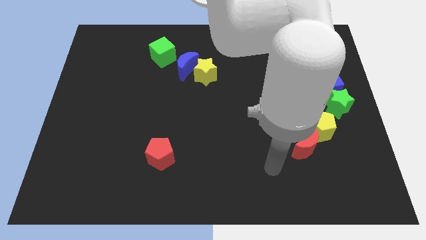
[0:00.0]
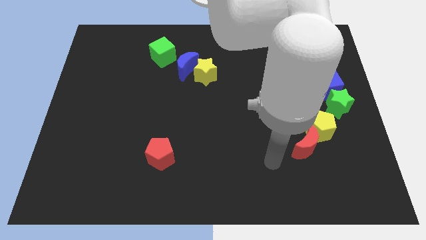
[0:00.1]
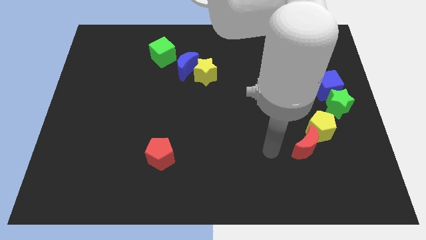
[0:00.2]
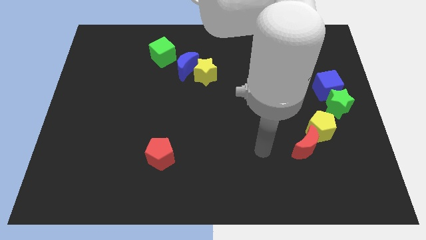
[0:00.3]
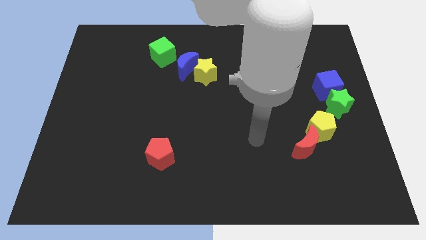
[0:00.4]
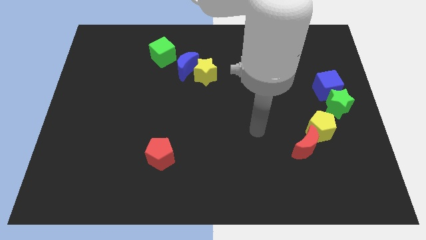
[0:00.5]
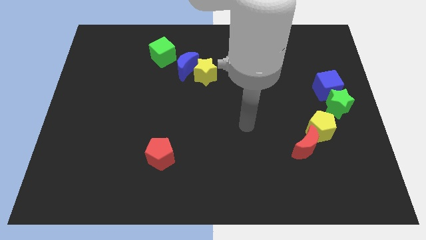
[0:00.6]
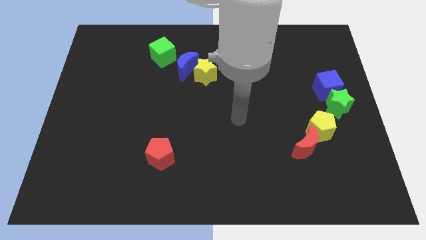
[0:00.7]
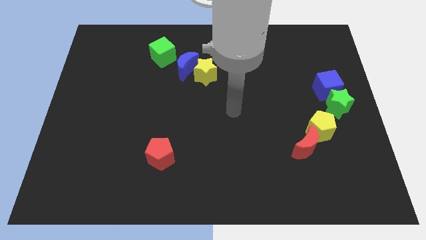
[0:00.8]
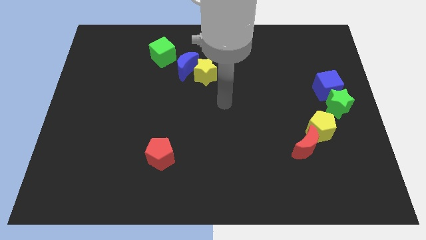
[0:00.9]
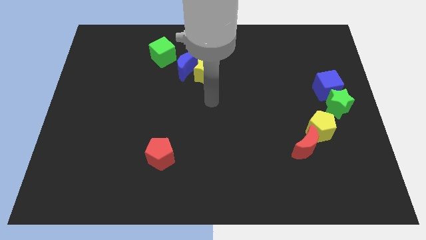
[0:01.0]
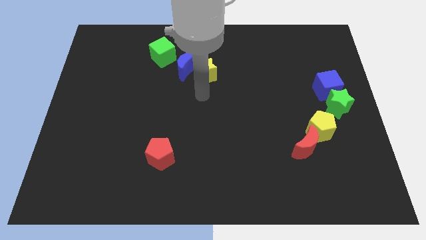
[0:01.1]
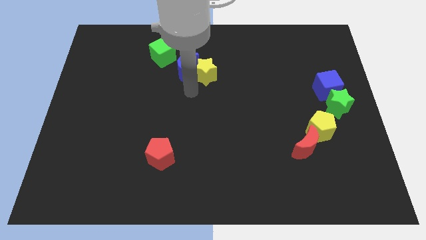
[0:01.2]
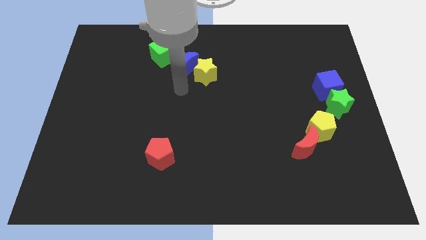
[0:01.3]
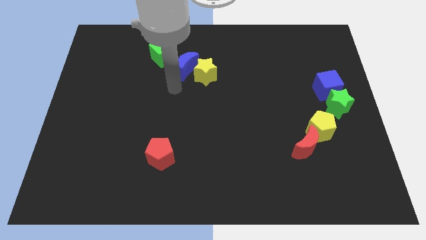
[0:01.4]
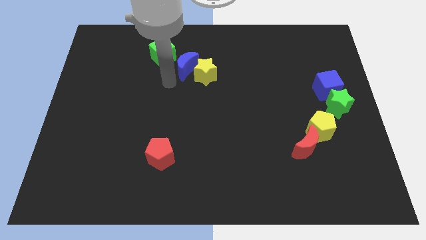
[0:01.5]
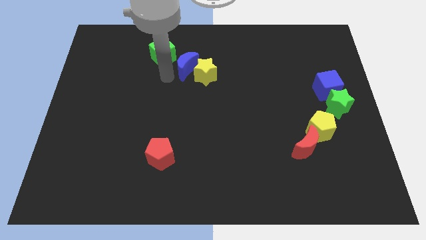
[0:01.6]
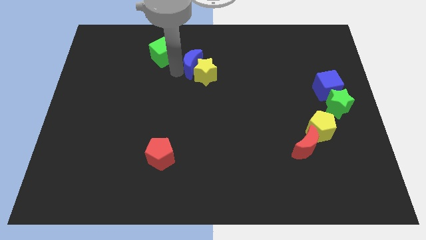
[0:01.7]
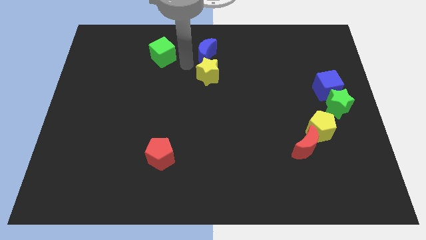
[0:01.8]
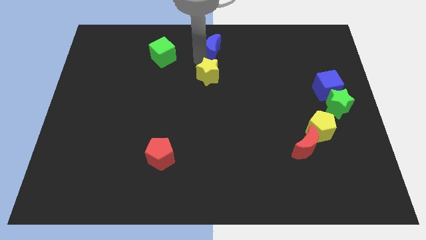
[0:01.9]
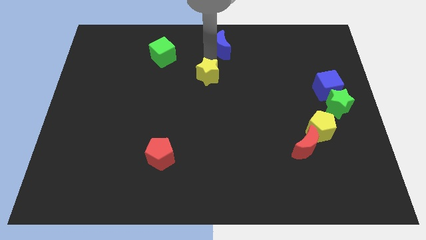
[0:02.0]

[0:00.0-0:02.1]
pull the yellow star apart from the blue moon

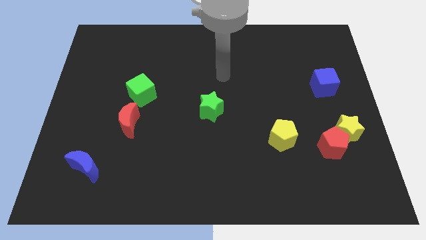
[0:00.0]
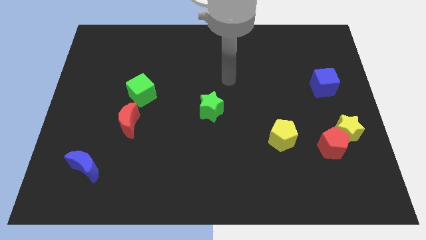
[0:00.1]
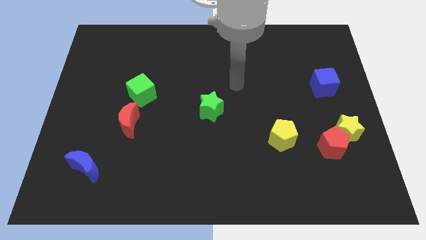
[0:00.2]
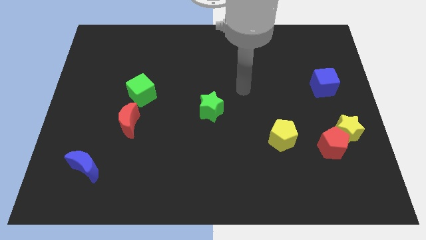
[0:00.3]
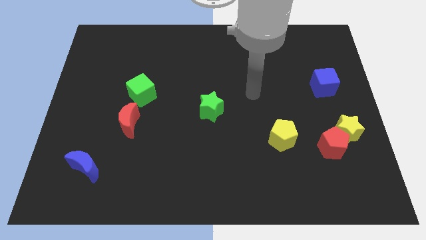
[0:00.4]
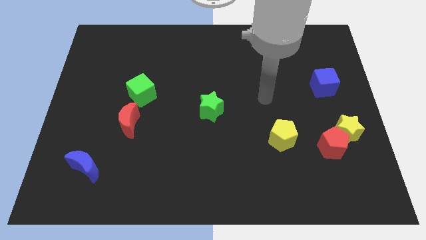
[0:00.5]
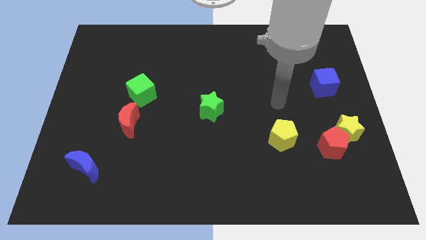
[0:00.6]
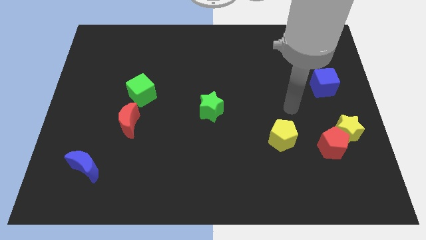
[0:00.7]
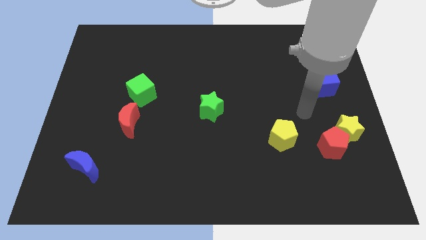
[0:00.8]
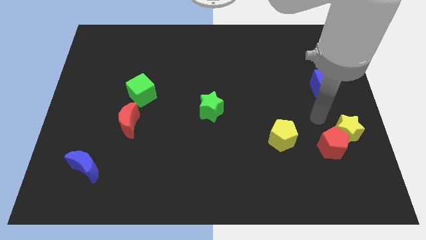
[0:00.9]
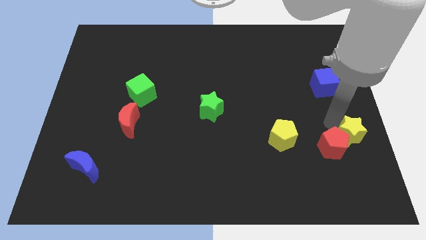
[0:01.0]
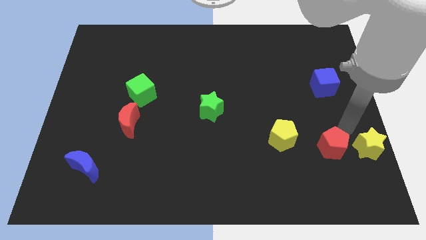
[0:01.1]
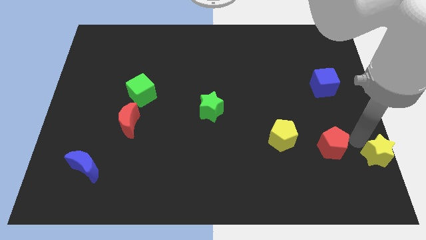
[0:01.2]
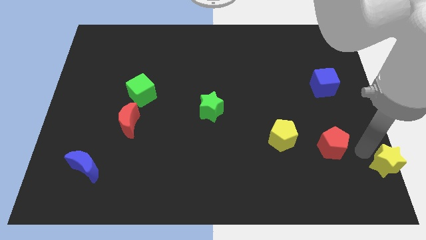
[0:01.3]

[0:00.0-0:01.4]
move the red pentagon away from the yellow star

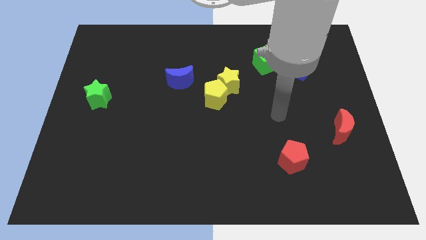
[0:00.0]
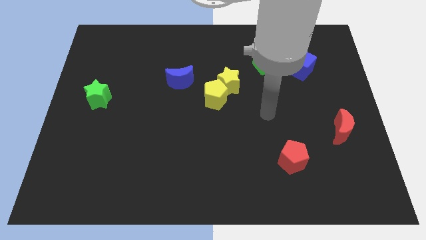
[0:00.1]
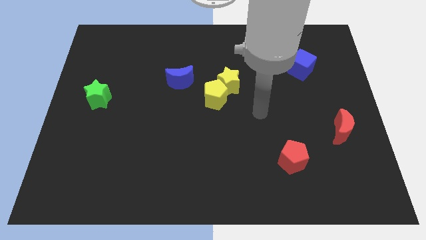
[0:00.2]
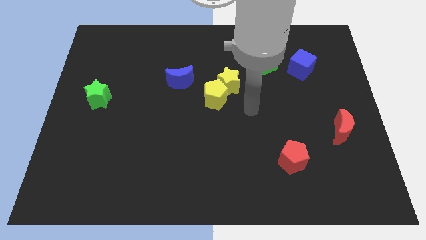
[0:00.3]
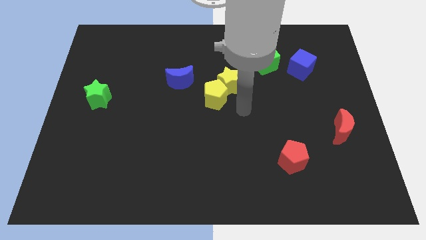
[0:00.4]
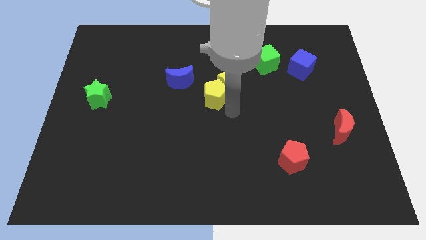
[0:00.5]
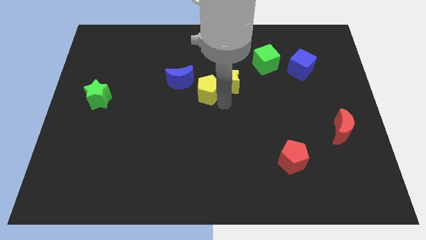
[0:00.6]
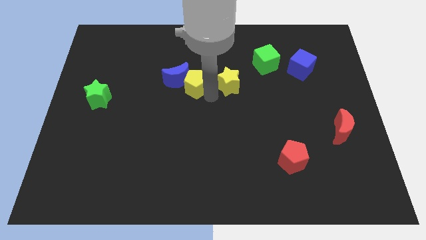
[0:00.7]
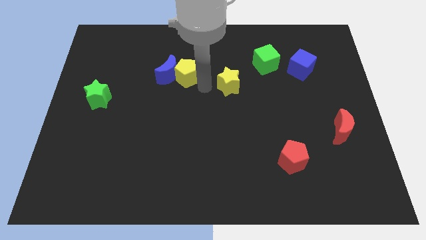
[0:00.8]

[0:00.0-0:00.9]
separate the yellow star from the yellow pentagon

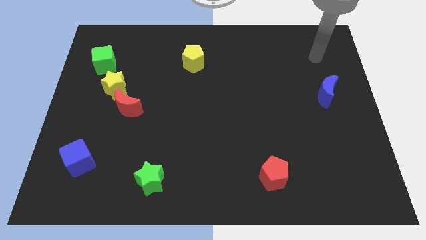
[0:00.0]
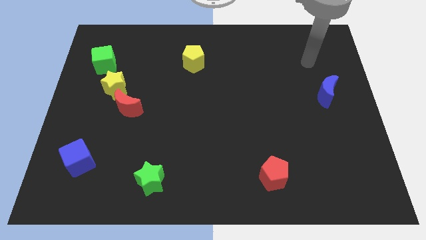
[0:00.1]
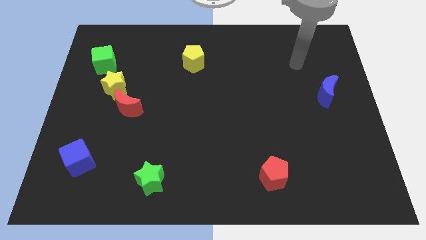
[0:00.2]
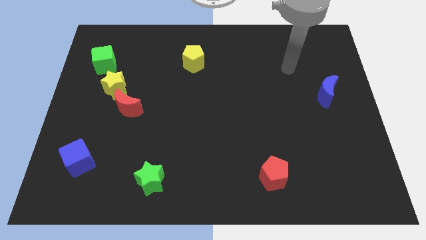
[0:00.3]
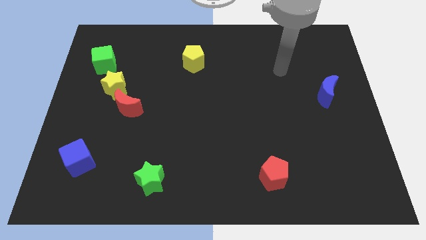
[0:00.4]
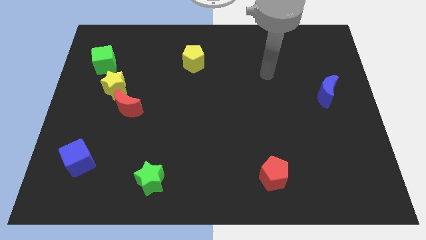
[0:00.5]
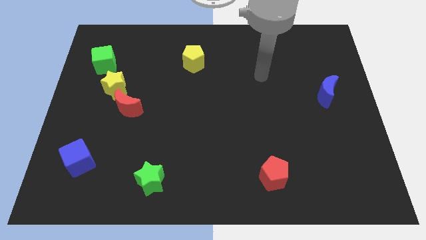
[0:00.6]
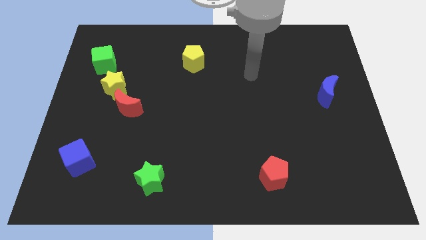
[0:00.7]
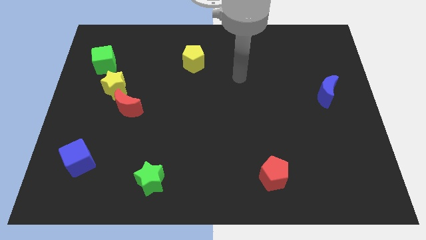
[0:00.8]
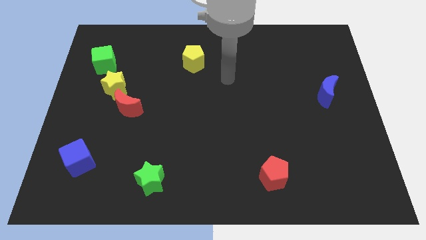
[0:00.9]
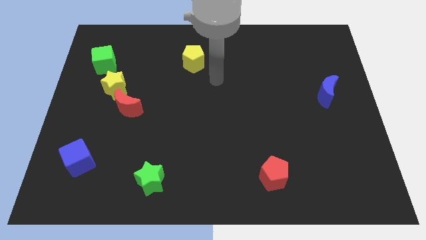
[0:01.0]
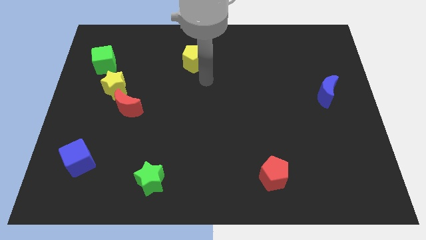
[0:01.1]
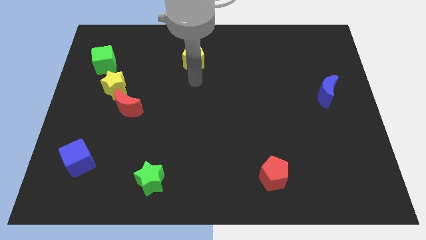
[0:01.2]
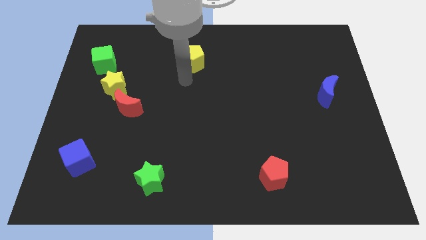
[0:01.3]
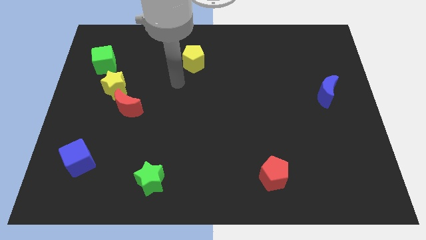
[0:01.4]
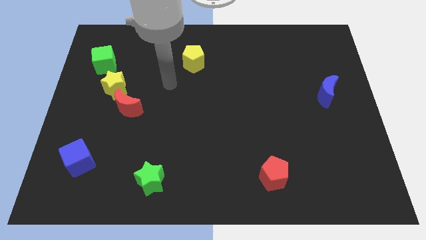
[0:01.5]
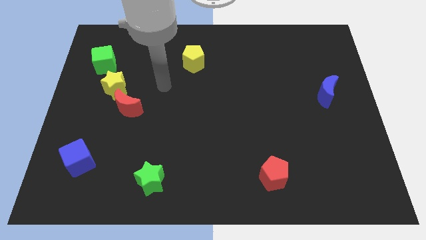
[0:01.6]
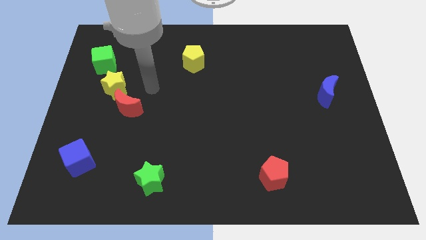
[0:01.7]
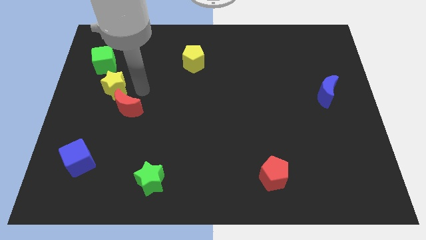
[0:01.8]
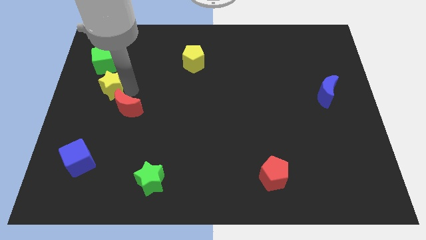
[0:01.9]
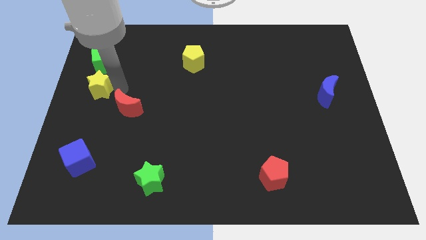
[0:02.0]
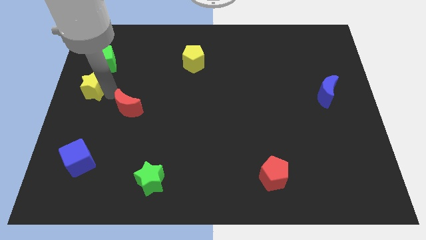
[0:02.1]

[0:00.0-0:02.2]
move the red moon away from the yellow star

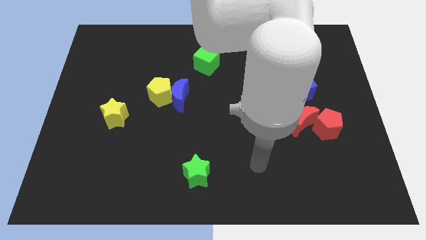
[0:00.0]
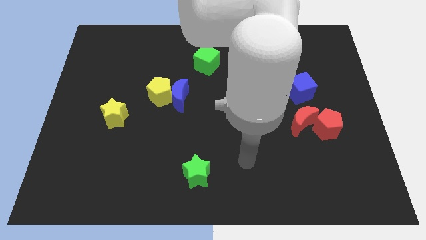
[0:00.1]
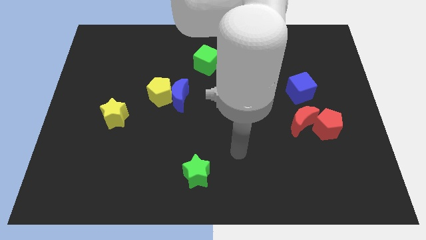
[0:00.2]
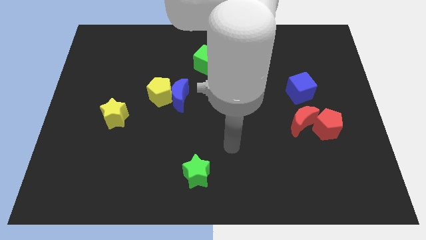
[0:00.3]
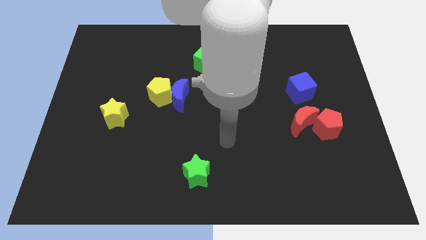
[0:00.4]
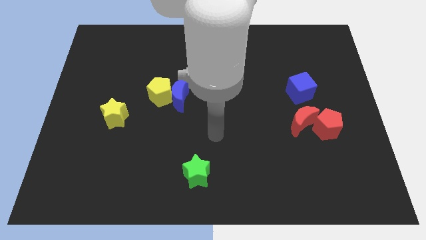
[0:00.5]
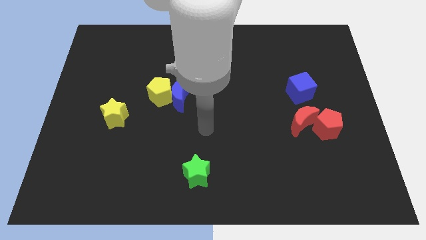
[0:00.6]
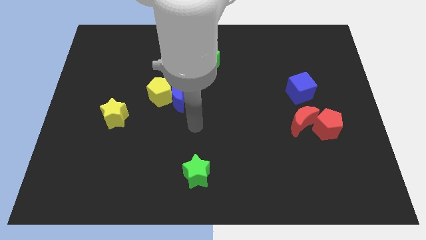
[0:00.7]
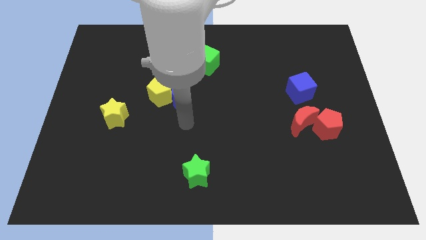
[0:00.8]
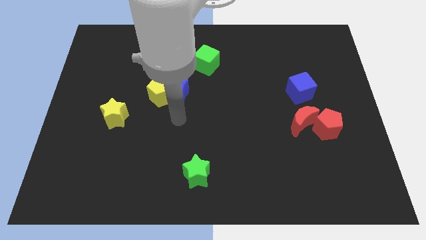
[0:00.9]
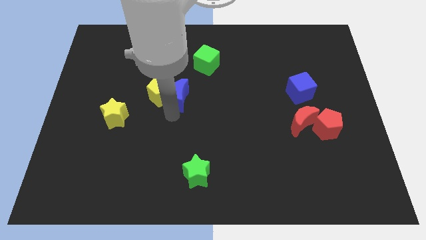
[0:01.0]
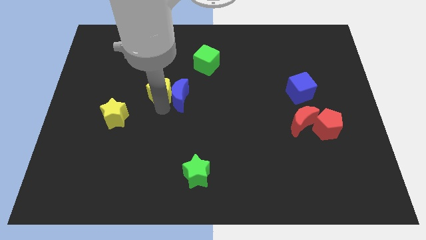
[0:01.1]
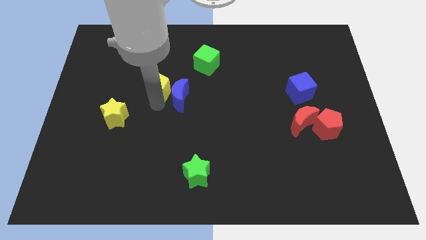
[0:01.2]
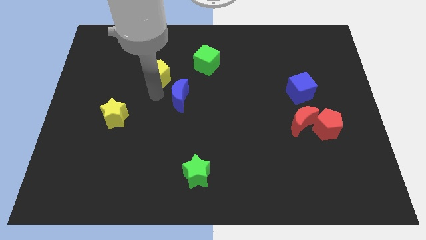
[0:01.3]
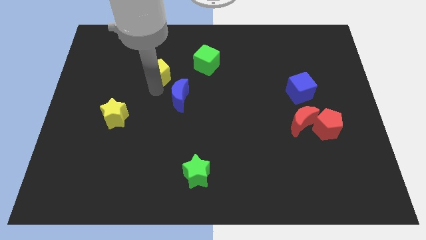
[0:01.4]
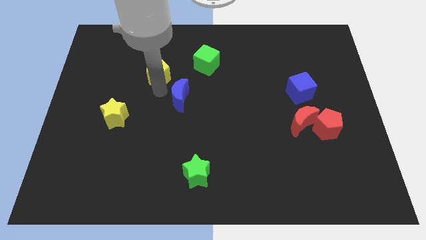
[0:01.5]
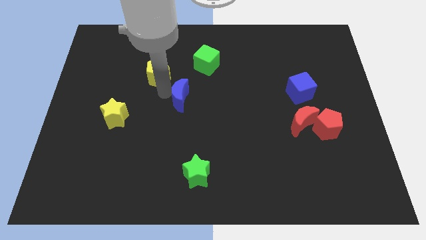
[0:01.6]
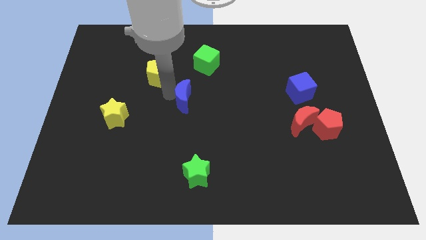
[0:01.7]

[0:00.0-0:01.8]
move the blue moon away from the yellow pentagon

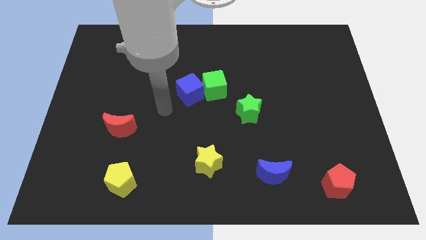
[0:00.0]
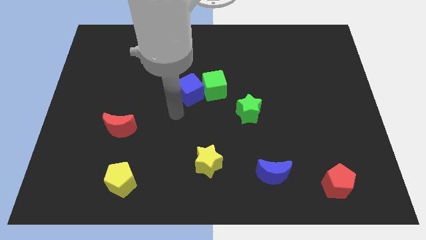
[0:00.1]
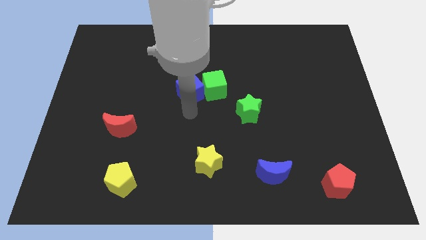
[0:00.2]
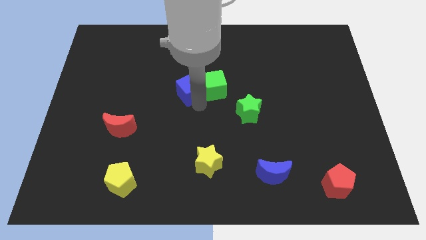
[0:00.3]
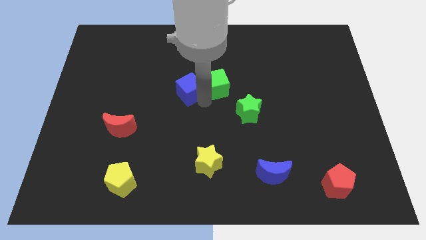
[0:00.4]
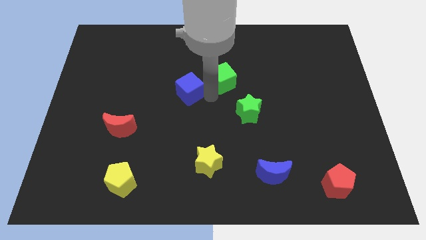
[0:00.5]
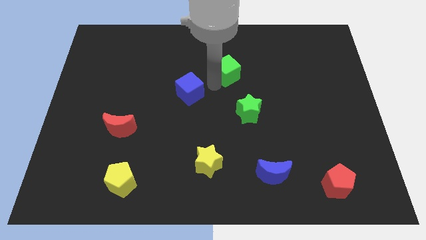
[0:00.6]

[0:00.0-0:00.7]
move the blue cube away from the green cube

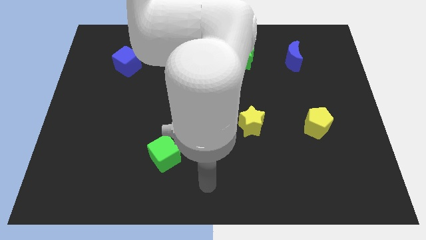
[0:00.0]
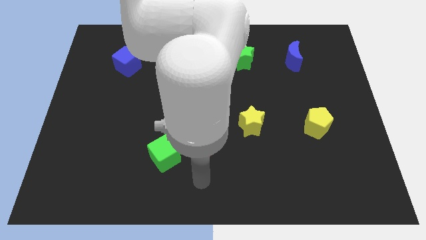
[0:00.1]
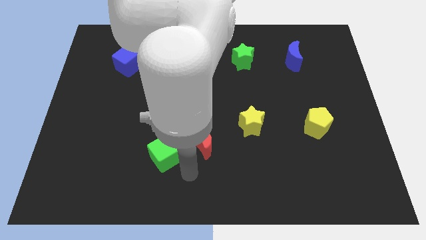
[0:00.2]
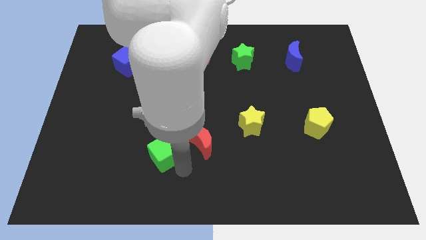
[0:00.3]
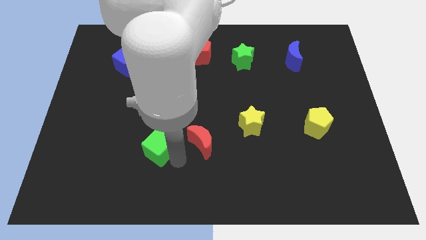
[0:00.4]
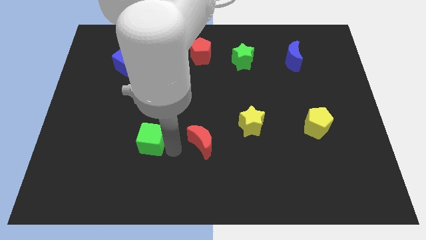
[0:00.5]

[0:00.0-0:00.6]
pull the red moon apart from the green cube
